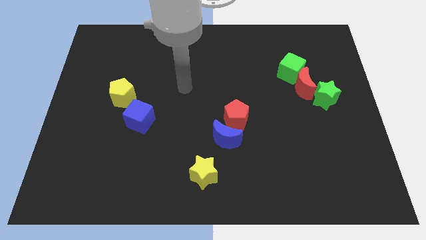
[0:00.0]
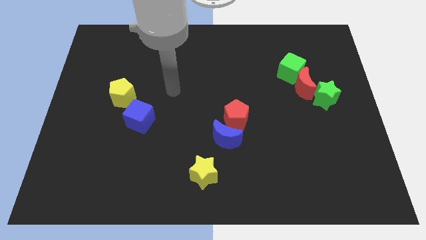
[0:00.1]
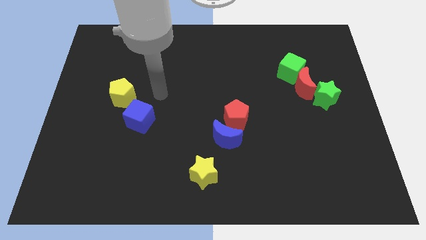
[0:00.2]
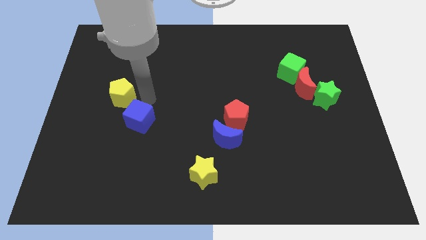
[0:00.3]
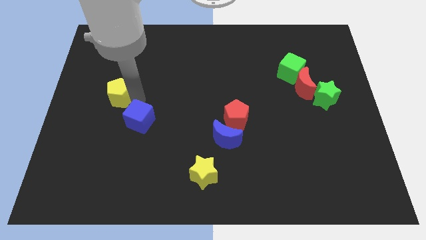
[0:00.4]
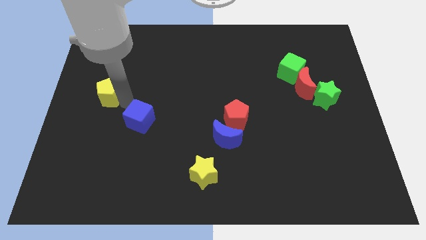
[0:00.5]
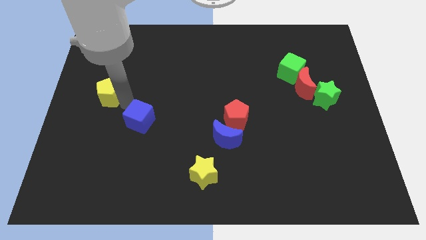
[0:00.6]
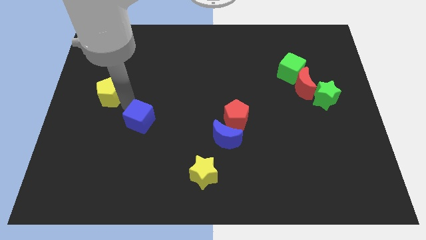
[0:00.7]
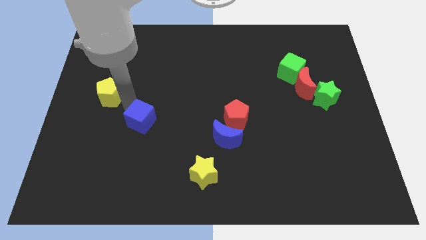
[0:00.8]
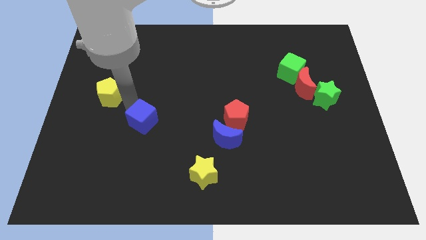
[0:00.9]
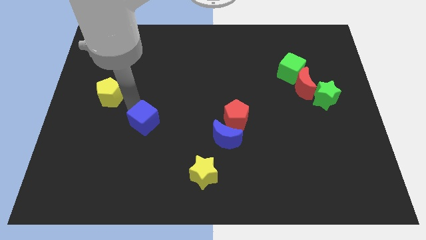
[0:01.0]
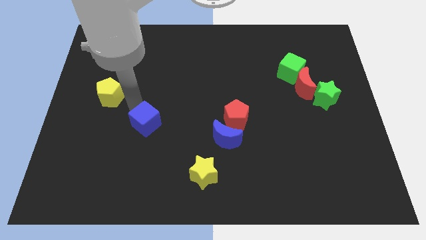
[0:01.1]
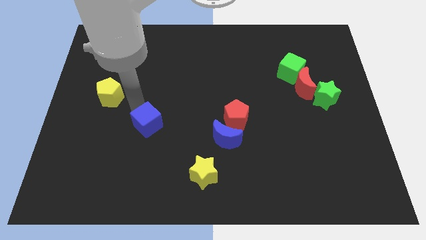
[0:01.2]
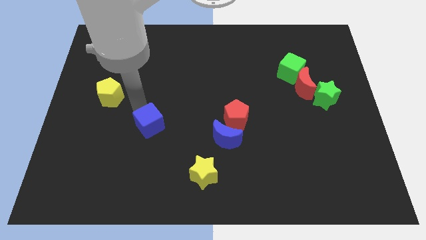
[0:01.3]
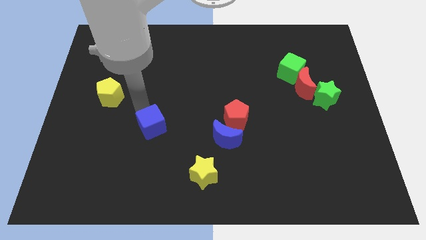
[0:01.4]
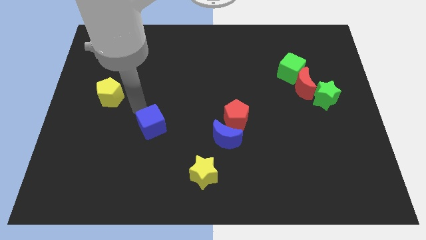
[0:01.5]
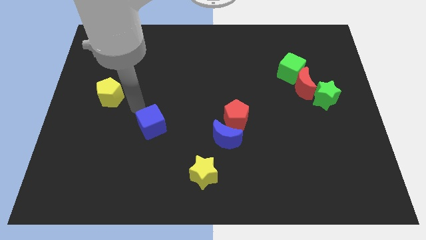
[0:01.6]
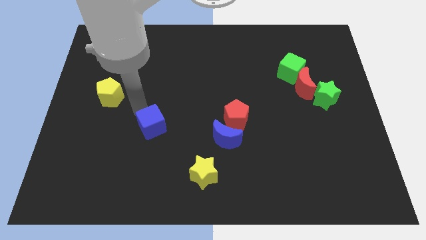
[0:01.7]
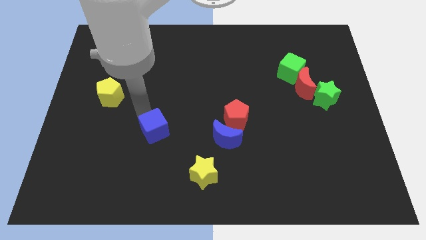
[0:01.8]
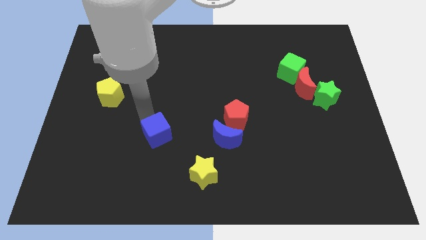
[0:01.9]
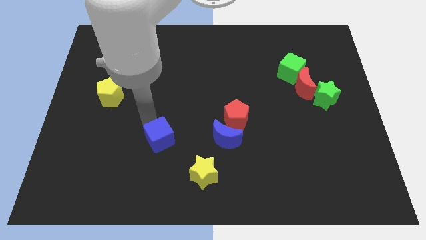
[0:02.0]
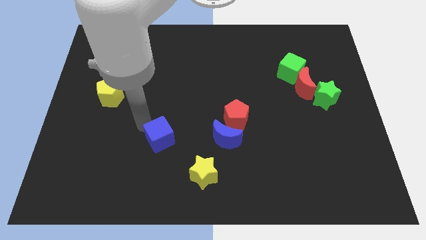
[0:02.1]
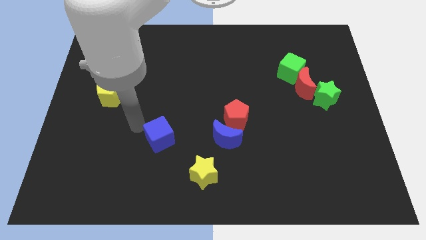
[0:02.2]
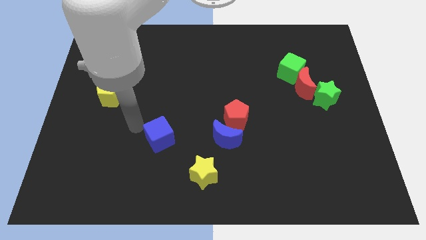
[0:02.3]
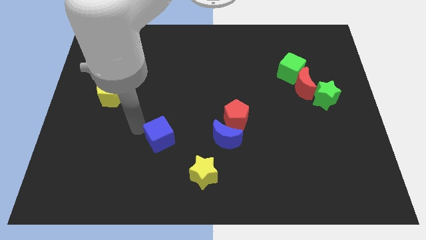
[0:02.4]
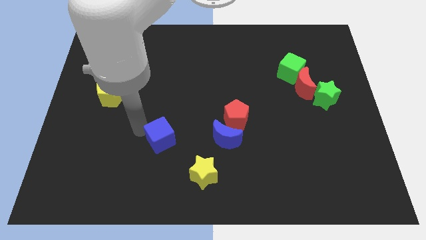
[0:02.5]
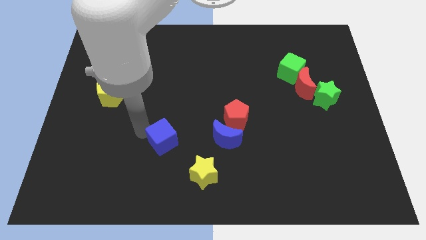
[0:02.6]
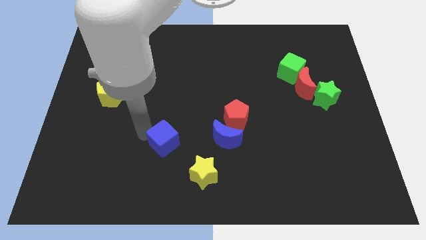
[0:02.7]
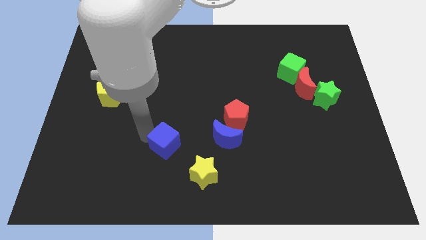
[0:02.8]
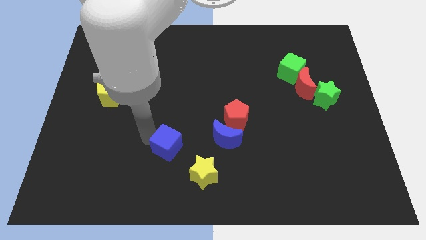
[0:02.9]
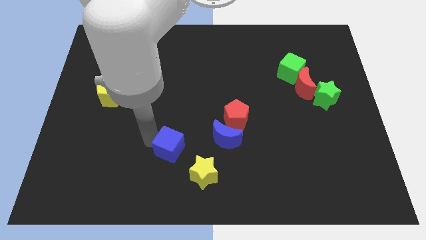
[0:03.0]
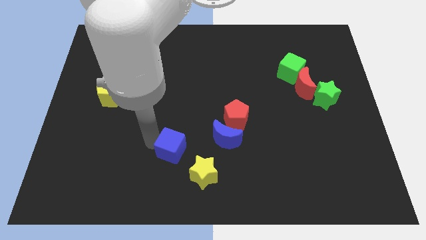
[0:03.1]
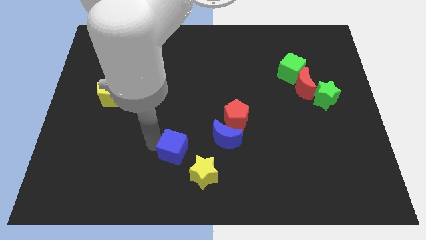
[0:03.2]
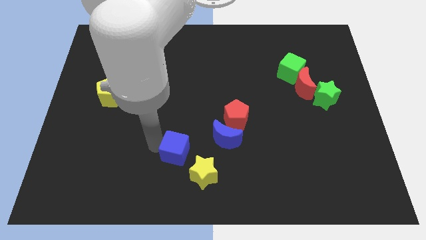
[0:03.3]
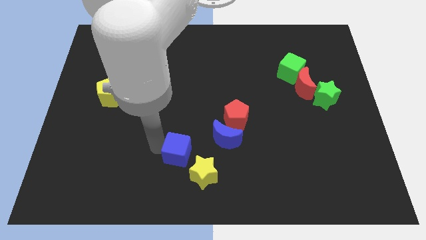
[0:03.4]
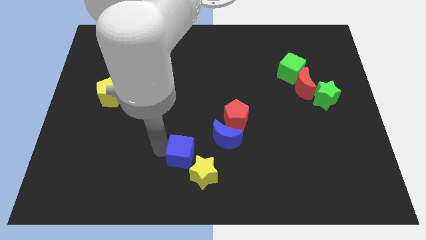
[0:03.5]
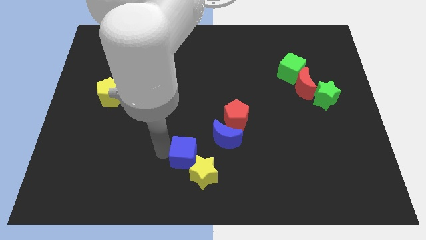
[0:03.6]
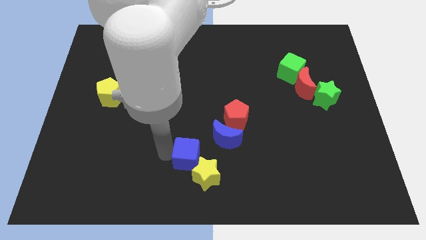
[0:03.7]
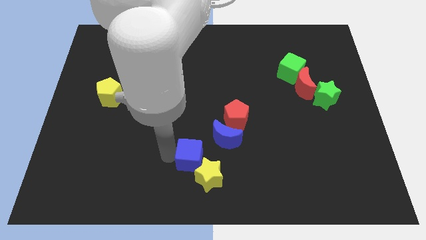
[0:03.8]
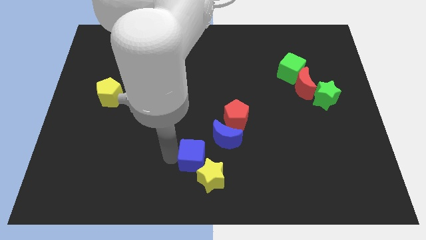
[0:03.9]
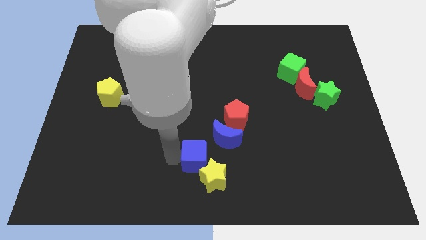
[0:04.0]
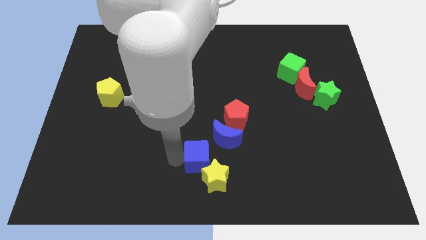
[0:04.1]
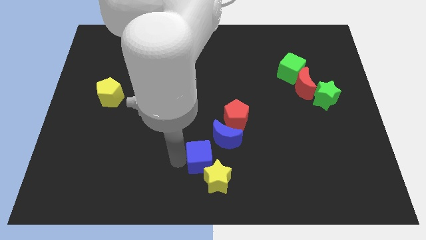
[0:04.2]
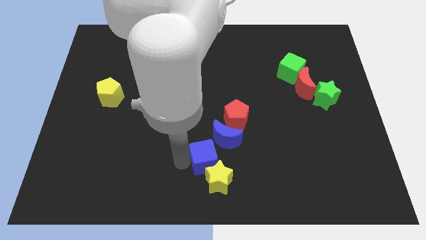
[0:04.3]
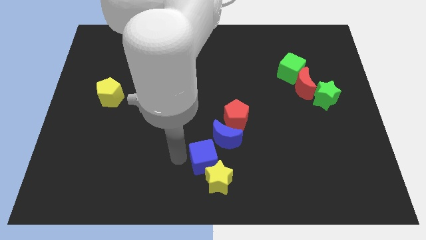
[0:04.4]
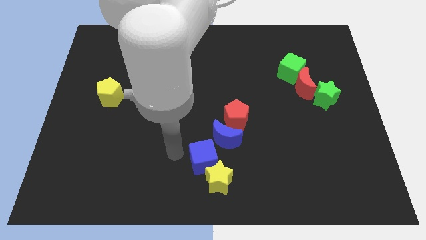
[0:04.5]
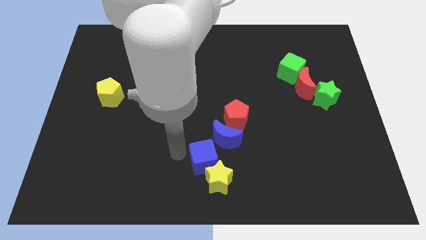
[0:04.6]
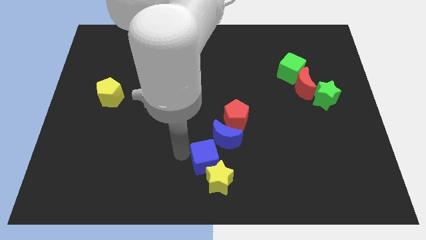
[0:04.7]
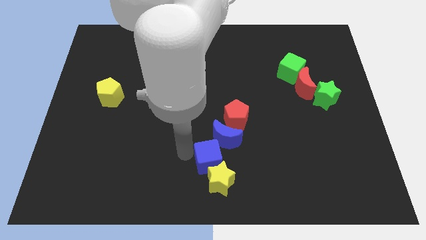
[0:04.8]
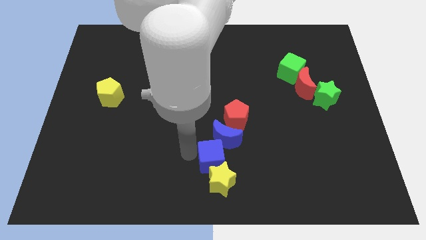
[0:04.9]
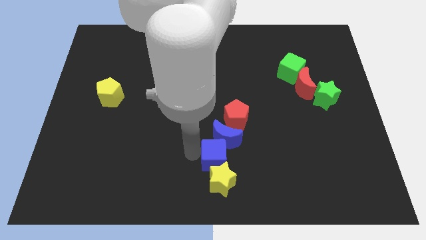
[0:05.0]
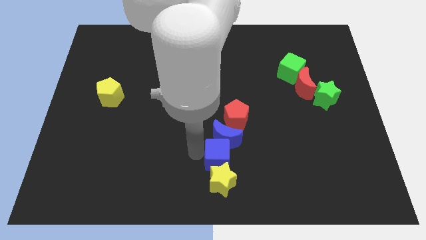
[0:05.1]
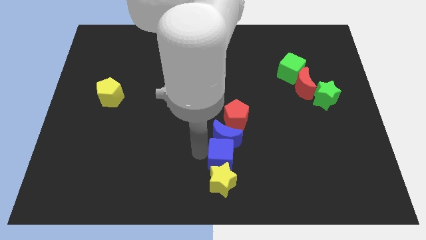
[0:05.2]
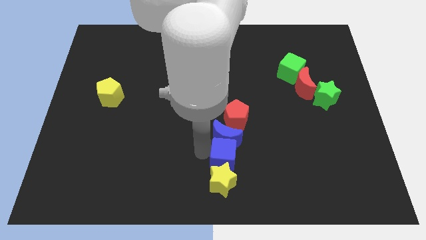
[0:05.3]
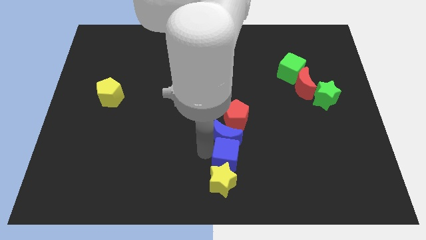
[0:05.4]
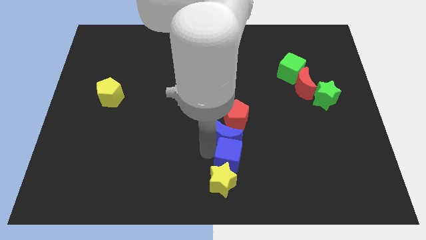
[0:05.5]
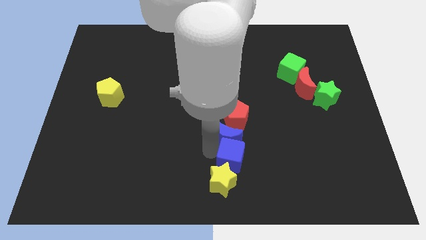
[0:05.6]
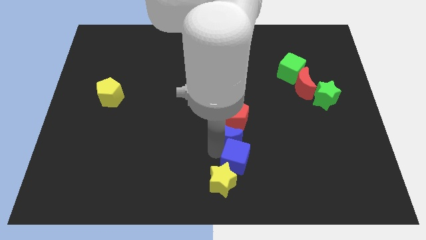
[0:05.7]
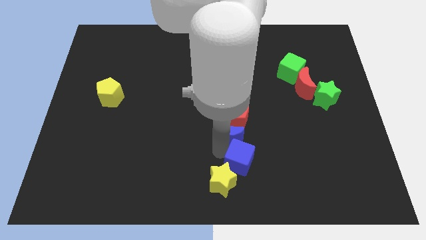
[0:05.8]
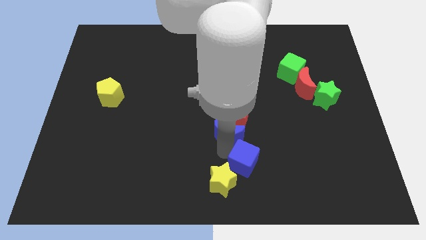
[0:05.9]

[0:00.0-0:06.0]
slide the blue cube to the right side of the yellow star

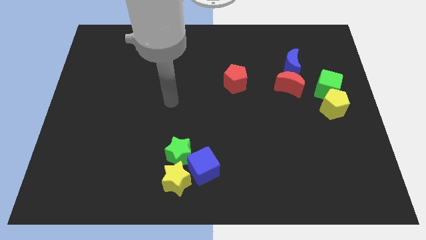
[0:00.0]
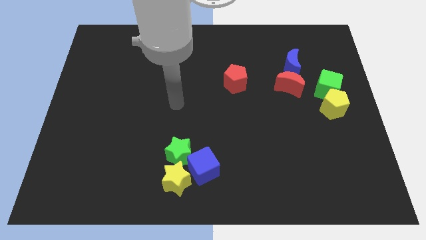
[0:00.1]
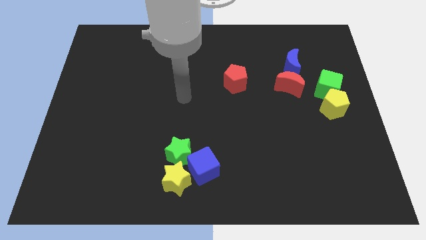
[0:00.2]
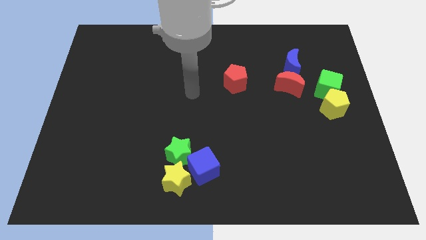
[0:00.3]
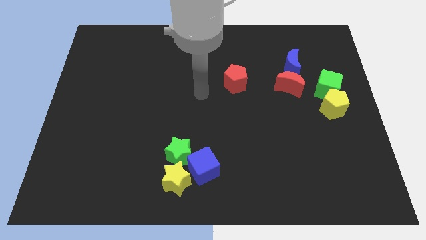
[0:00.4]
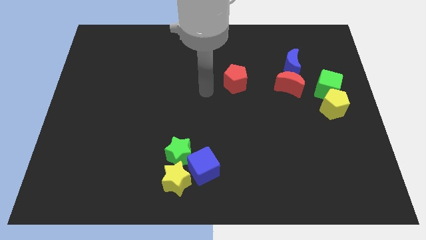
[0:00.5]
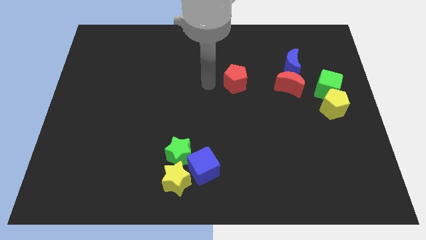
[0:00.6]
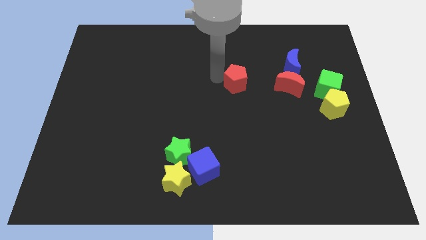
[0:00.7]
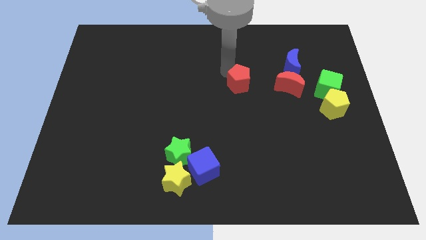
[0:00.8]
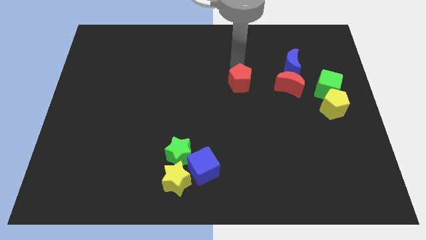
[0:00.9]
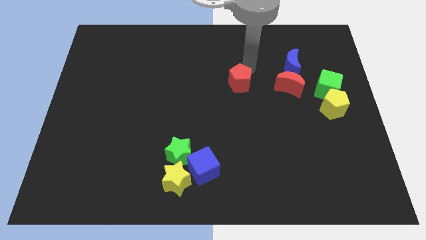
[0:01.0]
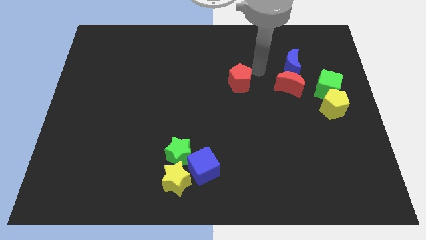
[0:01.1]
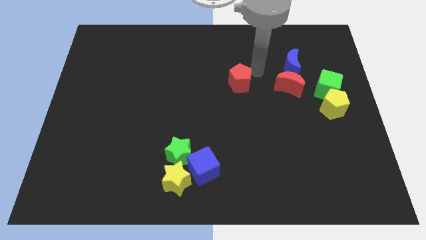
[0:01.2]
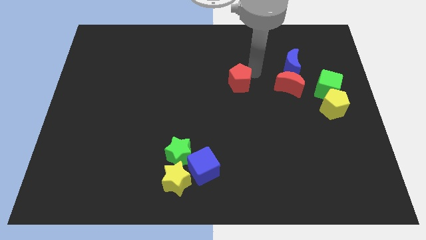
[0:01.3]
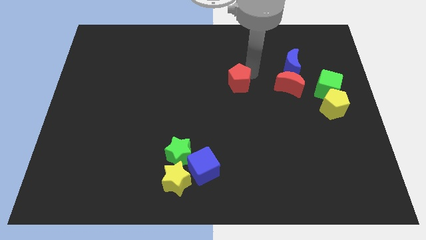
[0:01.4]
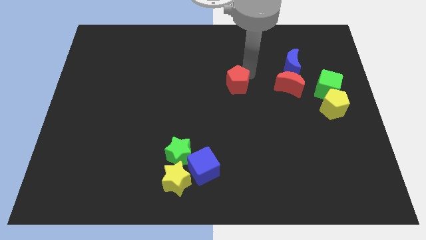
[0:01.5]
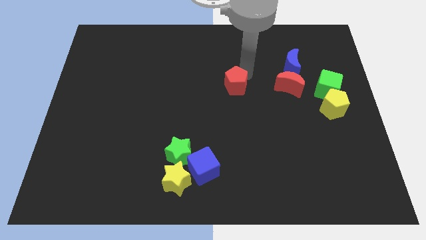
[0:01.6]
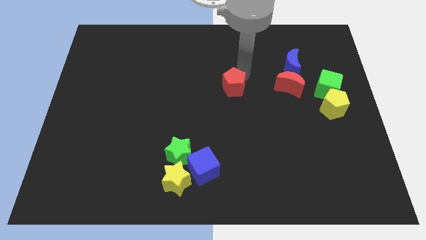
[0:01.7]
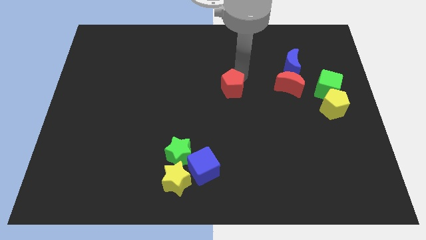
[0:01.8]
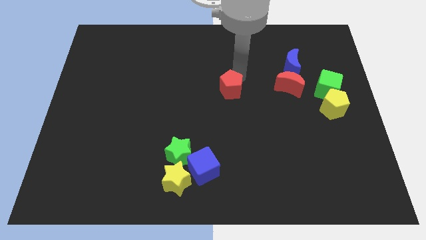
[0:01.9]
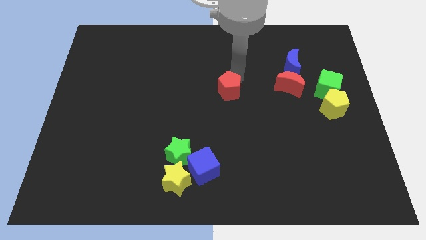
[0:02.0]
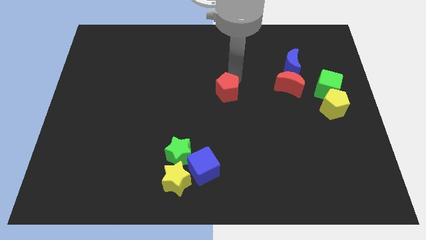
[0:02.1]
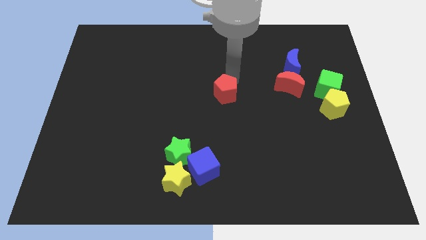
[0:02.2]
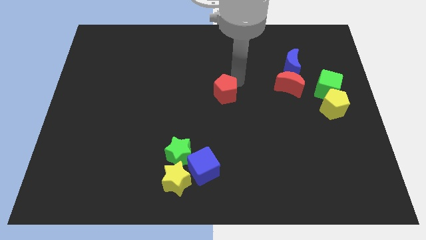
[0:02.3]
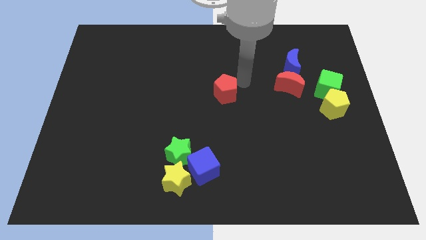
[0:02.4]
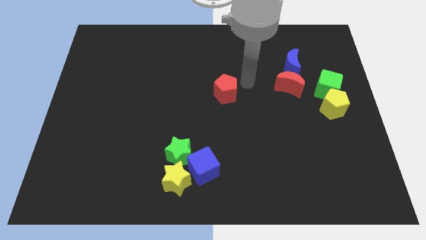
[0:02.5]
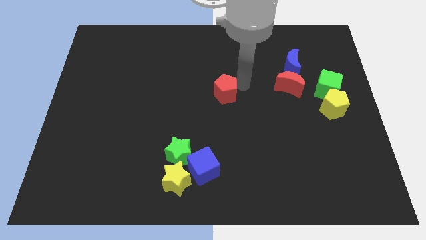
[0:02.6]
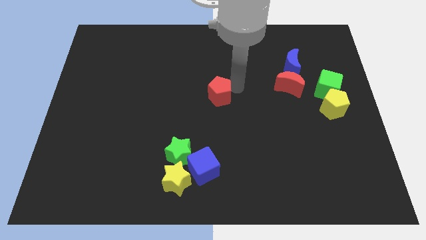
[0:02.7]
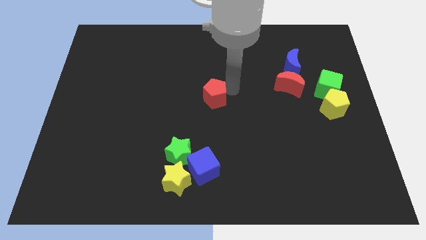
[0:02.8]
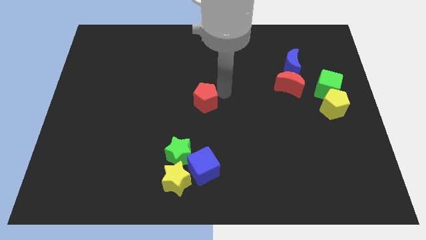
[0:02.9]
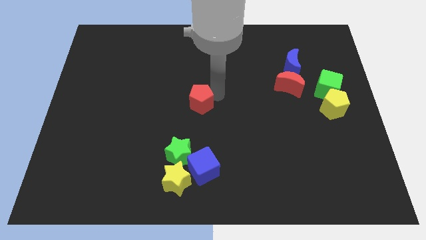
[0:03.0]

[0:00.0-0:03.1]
move the red pentagon above the green star
